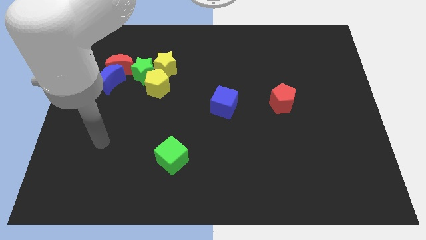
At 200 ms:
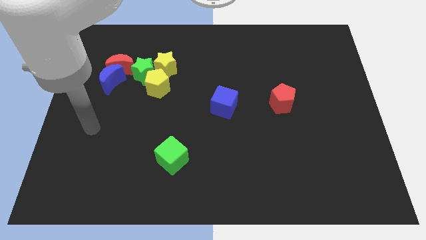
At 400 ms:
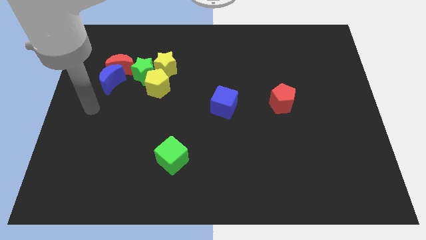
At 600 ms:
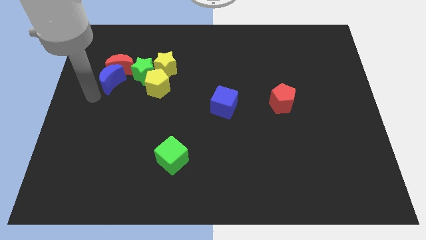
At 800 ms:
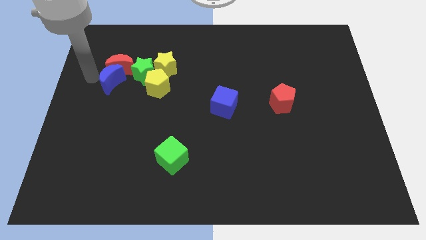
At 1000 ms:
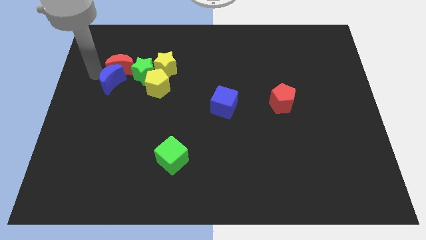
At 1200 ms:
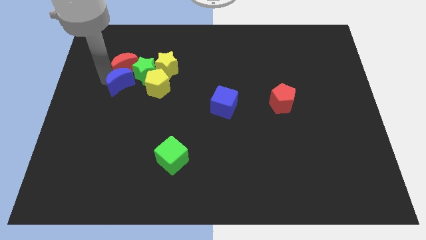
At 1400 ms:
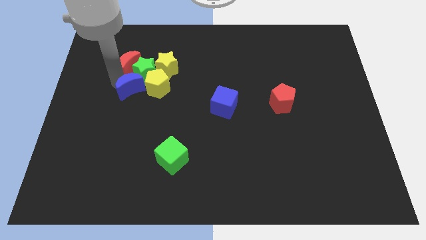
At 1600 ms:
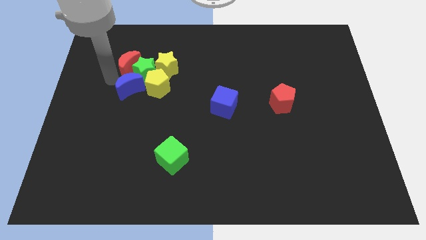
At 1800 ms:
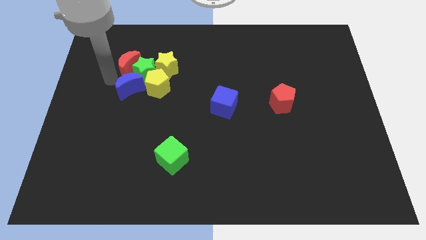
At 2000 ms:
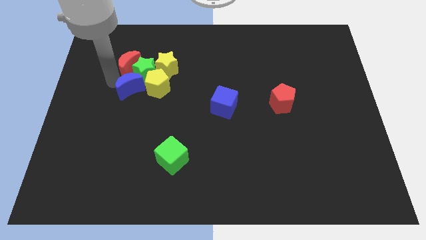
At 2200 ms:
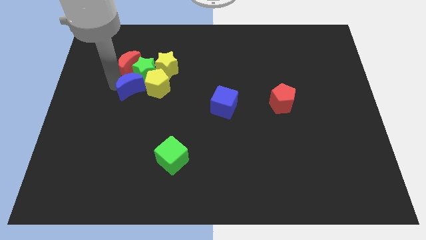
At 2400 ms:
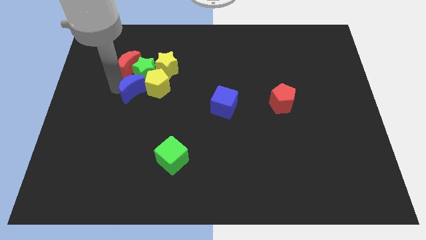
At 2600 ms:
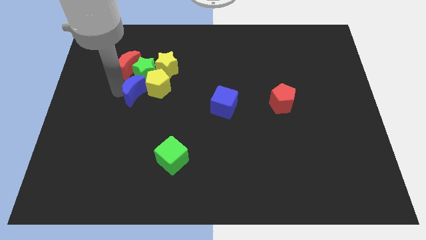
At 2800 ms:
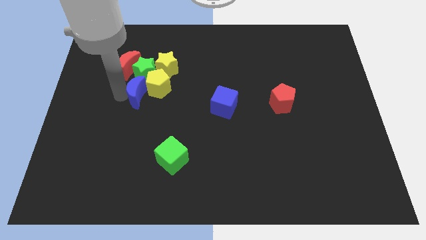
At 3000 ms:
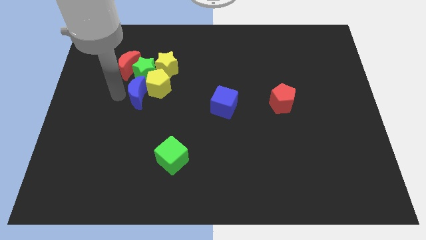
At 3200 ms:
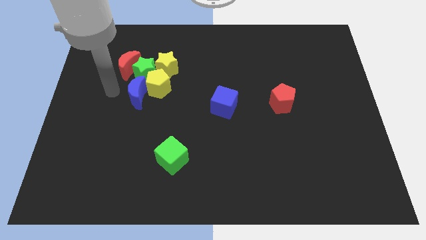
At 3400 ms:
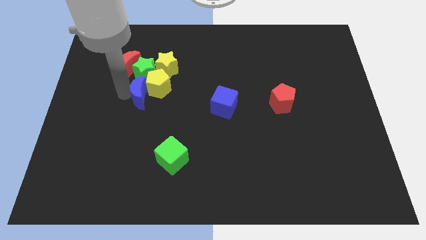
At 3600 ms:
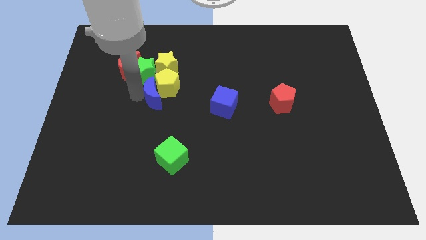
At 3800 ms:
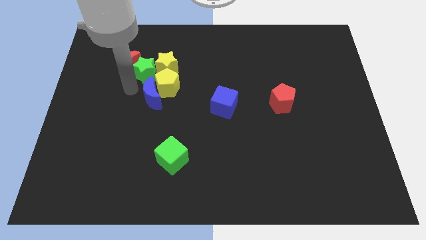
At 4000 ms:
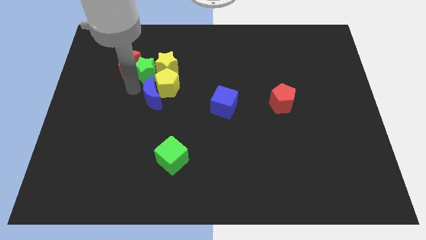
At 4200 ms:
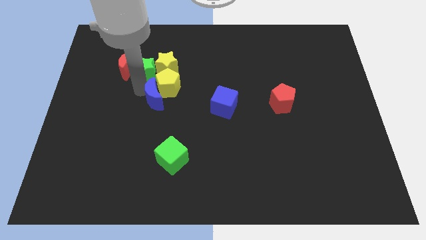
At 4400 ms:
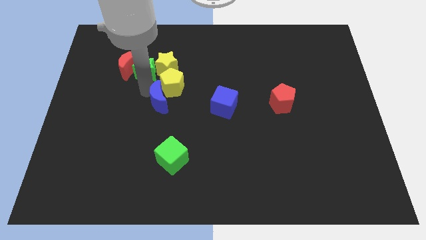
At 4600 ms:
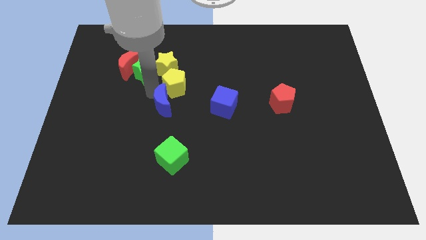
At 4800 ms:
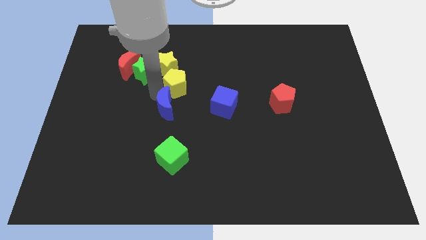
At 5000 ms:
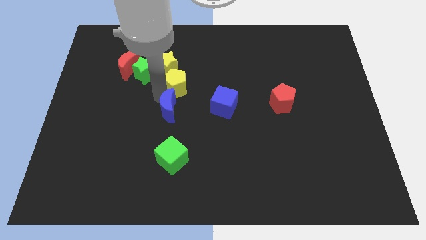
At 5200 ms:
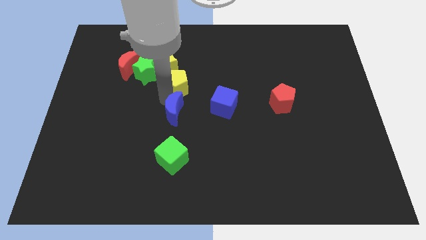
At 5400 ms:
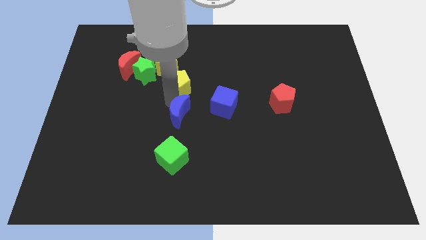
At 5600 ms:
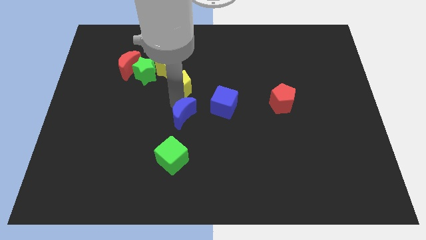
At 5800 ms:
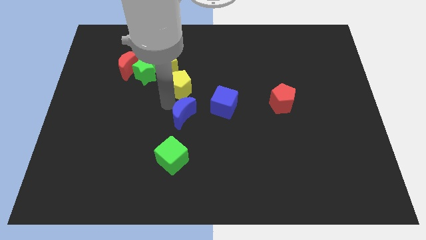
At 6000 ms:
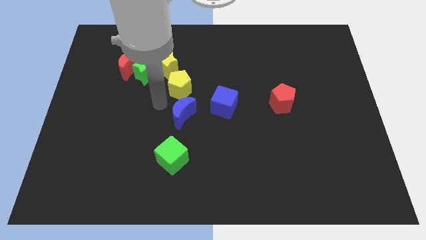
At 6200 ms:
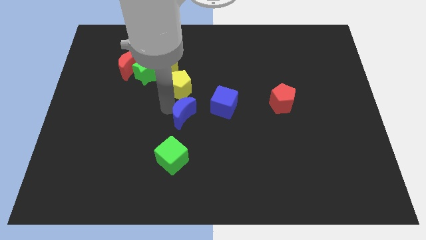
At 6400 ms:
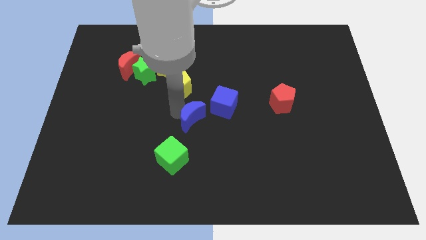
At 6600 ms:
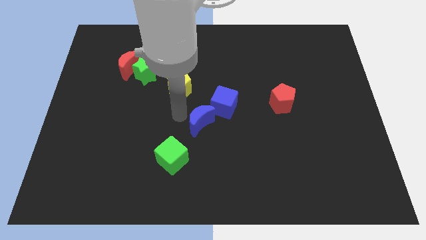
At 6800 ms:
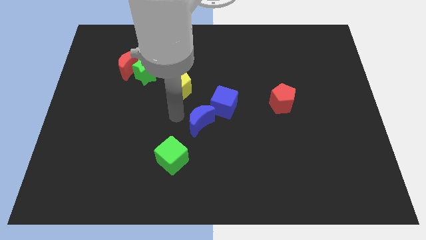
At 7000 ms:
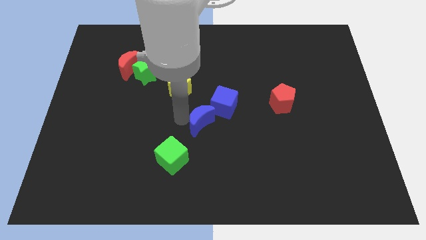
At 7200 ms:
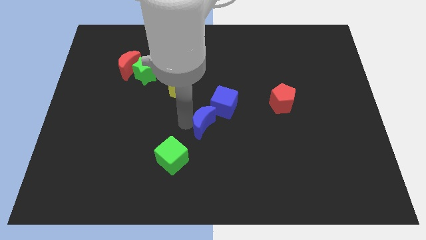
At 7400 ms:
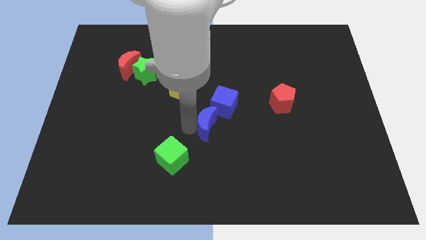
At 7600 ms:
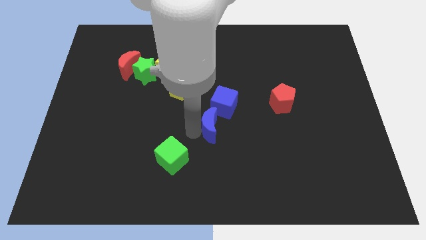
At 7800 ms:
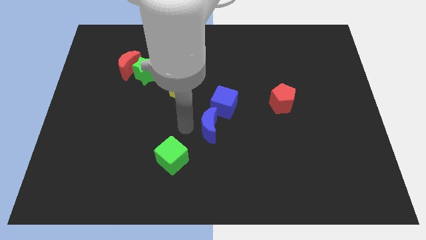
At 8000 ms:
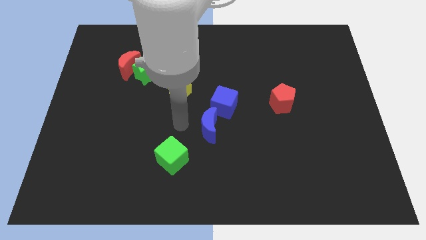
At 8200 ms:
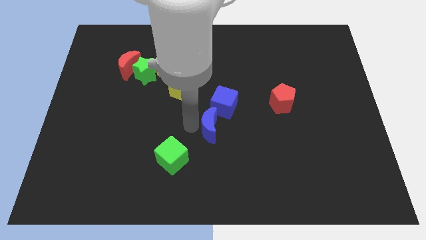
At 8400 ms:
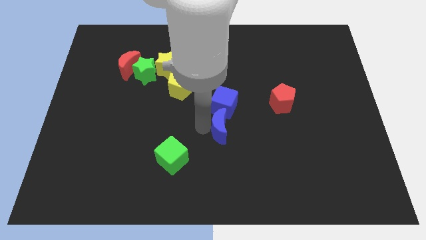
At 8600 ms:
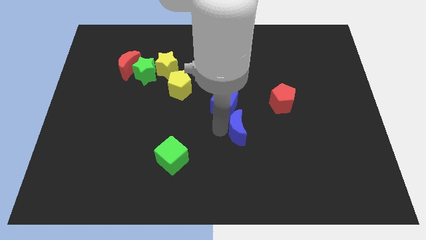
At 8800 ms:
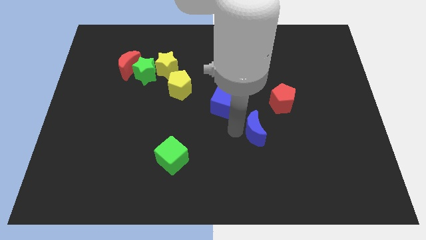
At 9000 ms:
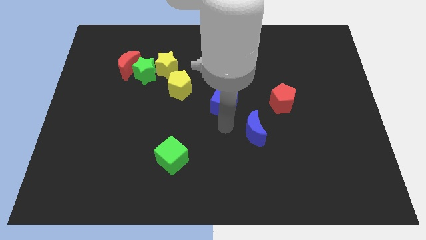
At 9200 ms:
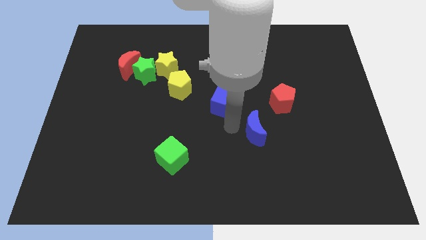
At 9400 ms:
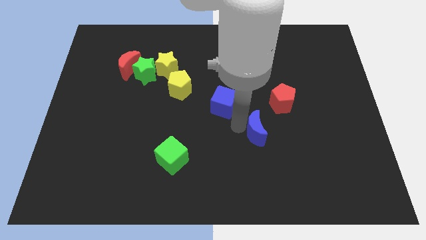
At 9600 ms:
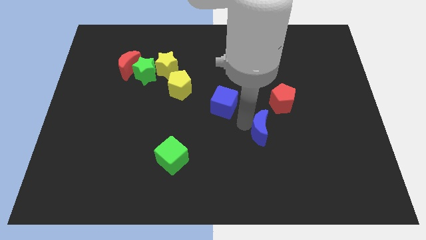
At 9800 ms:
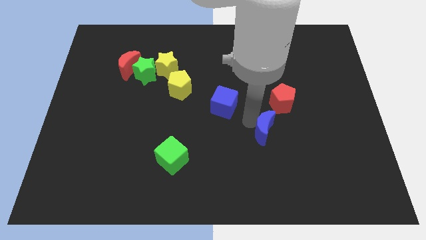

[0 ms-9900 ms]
slide the blue moon to the bottom of the red pentagon

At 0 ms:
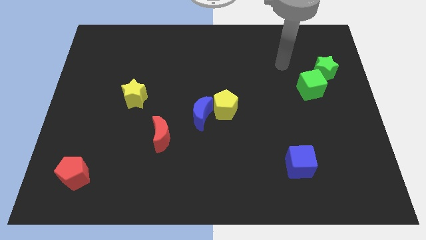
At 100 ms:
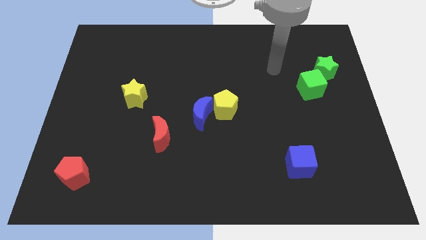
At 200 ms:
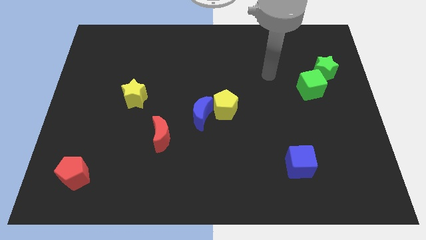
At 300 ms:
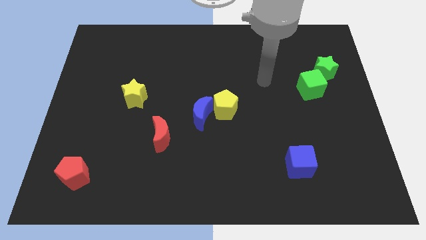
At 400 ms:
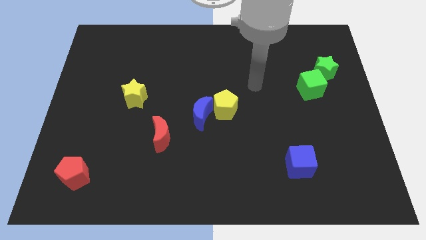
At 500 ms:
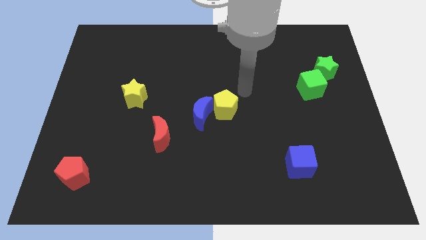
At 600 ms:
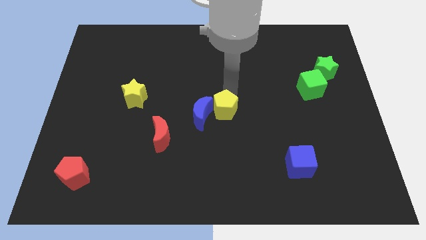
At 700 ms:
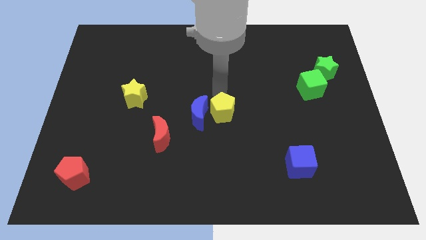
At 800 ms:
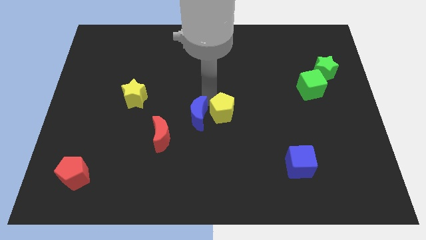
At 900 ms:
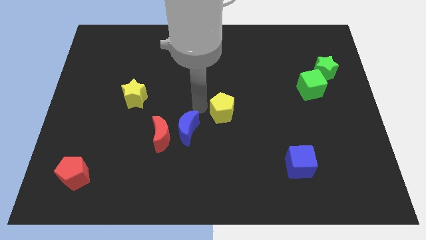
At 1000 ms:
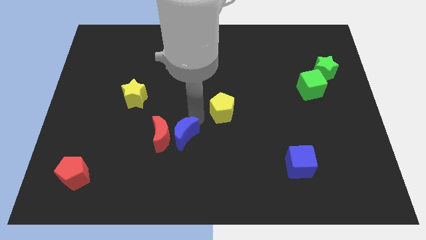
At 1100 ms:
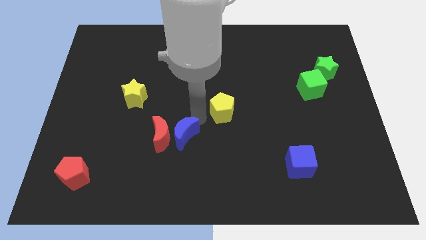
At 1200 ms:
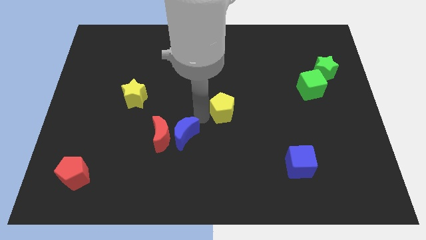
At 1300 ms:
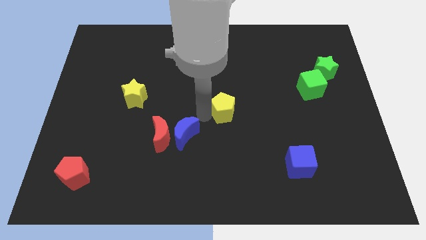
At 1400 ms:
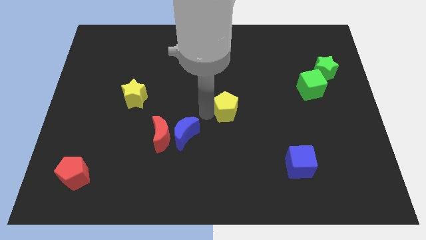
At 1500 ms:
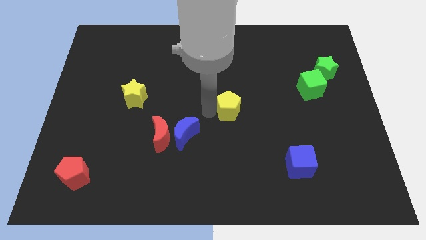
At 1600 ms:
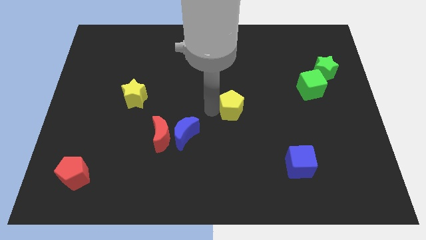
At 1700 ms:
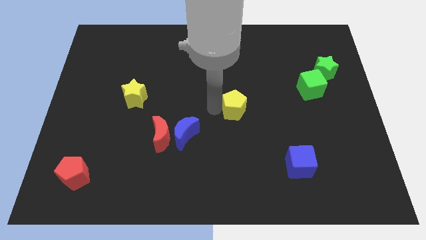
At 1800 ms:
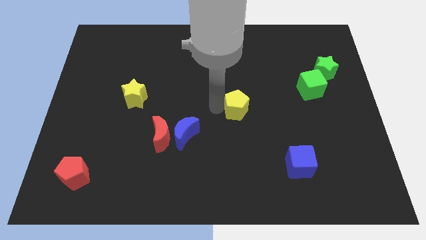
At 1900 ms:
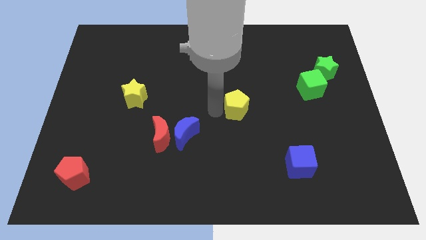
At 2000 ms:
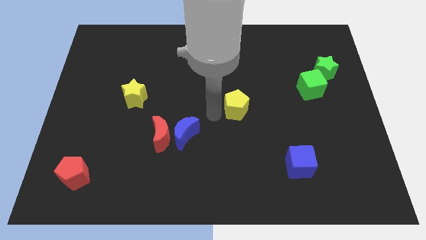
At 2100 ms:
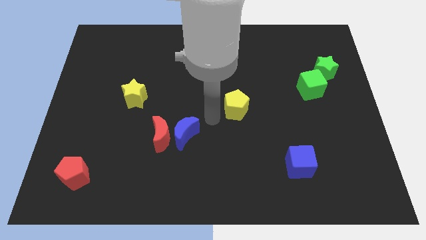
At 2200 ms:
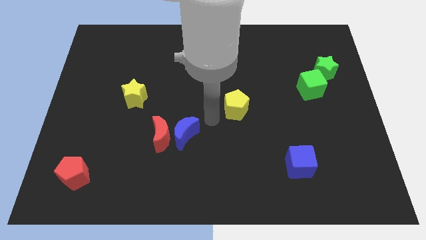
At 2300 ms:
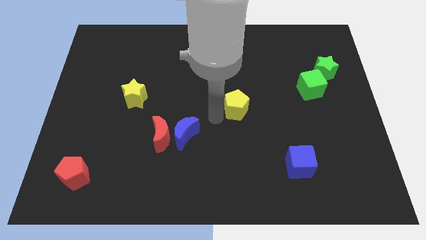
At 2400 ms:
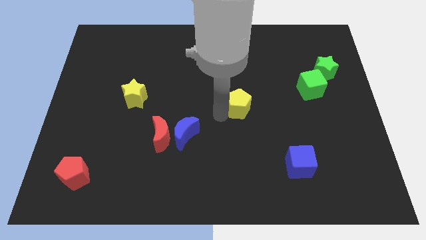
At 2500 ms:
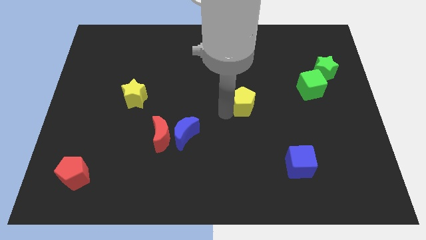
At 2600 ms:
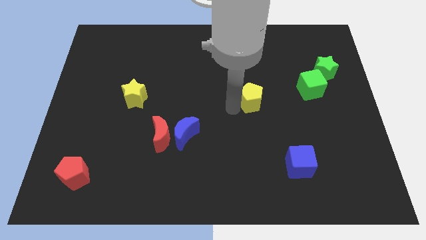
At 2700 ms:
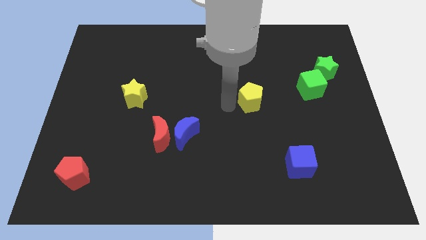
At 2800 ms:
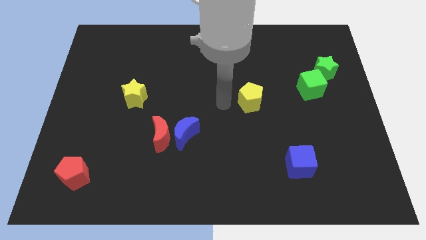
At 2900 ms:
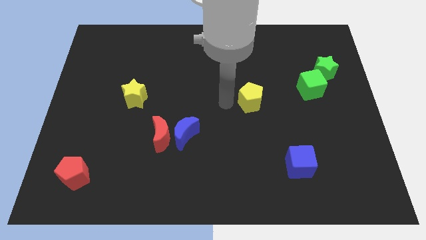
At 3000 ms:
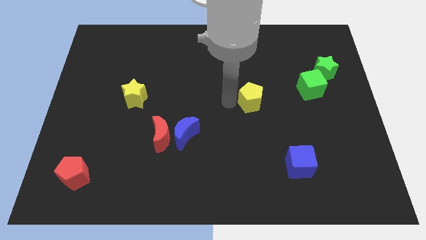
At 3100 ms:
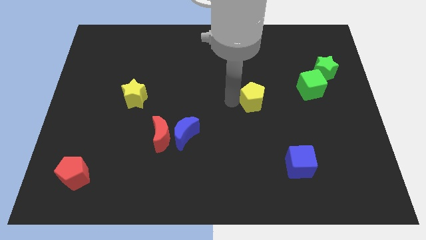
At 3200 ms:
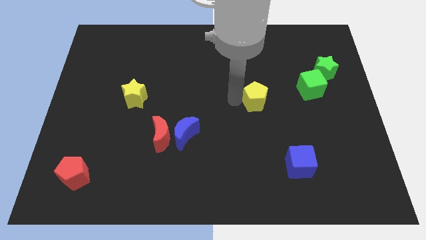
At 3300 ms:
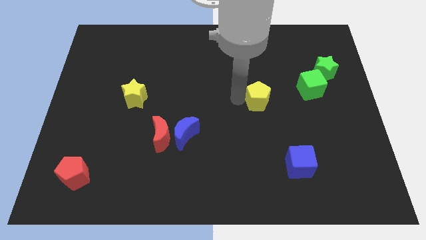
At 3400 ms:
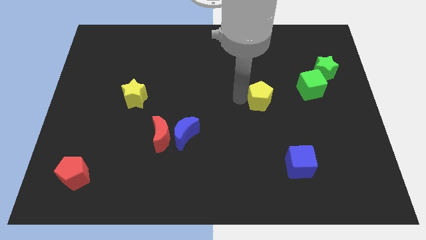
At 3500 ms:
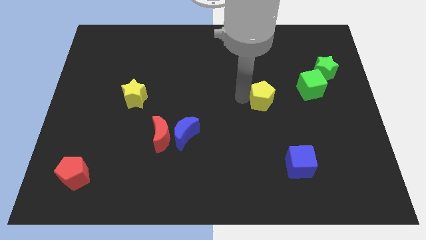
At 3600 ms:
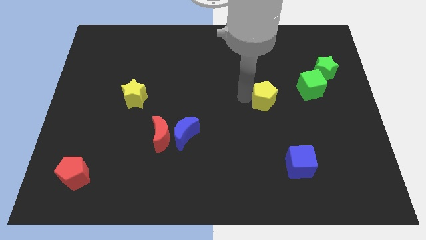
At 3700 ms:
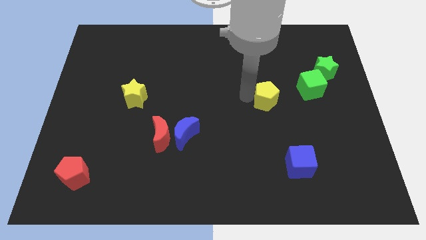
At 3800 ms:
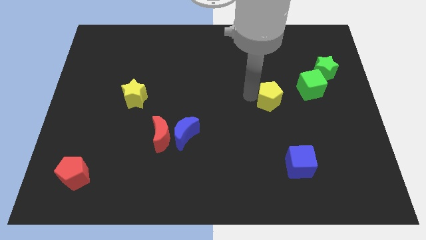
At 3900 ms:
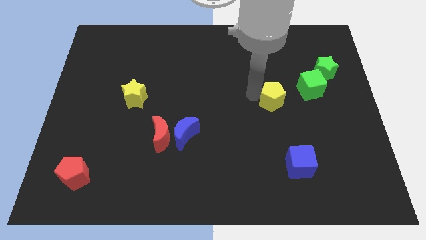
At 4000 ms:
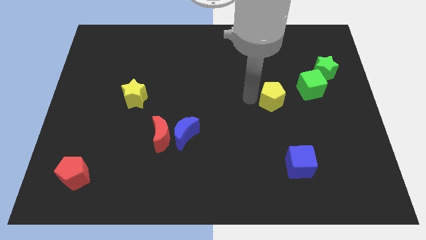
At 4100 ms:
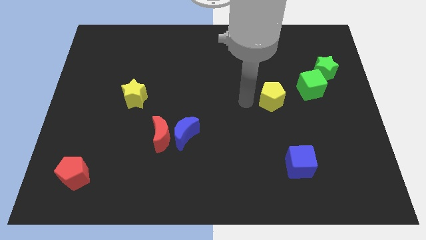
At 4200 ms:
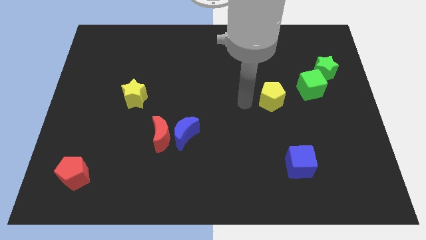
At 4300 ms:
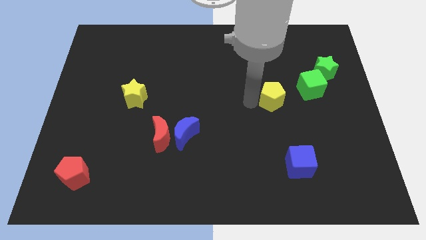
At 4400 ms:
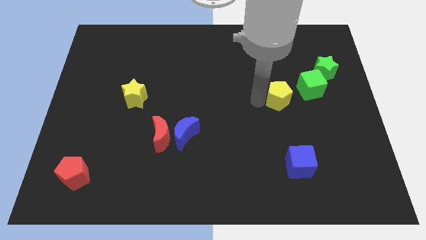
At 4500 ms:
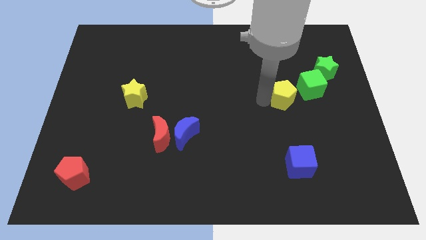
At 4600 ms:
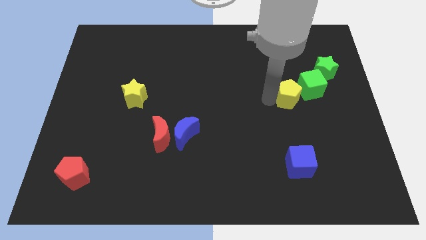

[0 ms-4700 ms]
move the yellow pentagon diagonally down and to the left of the green star
